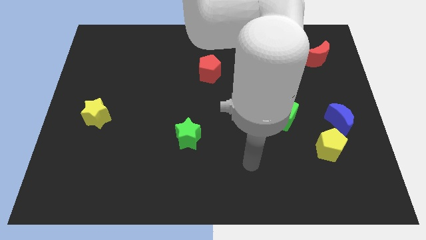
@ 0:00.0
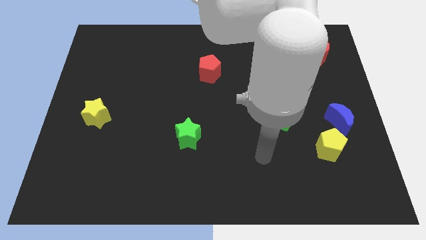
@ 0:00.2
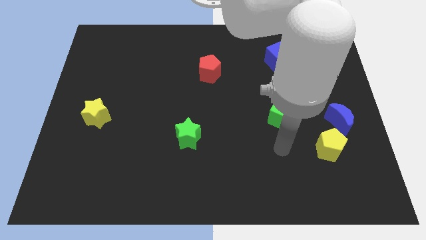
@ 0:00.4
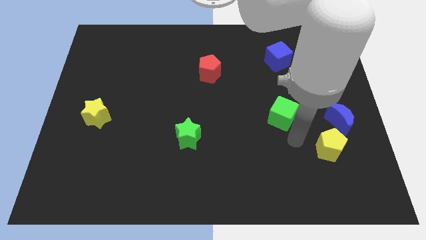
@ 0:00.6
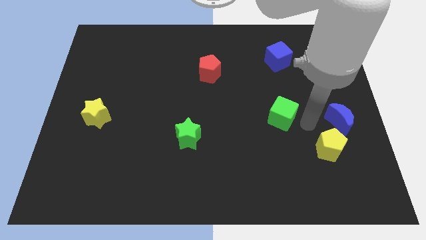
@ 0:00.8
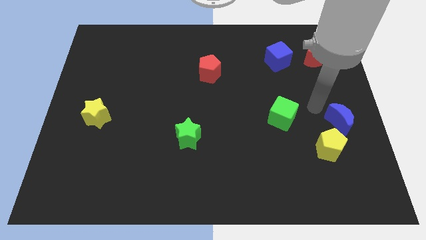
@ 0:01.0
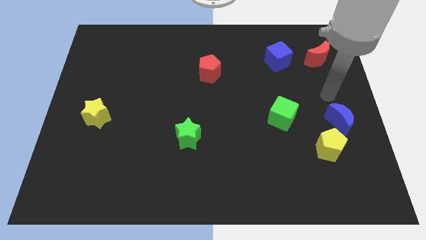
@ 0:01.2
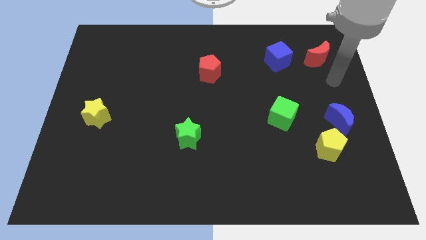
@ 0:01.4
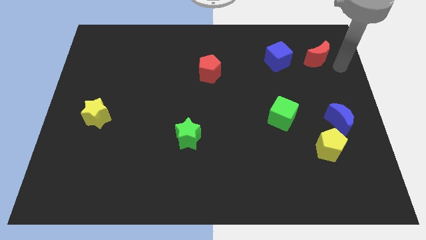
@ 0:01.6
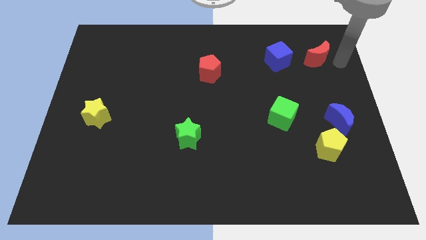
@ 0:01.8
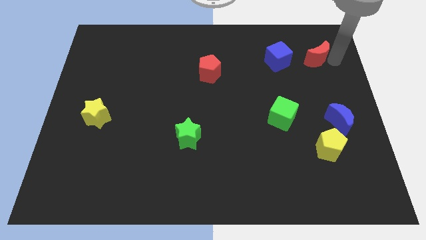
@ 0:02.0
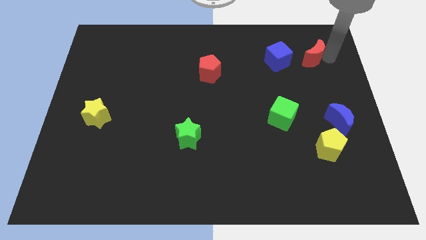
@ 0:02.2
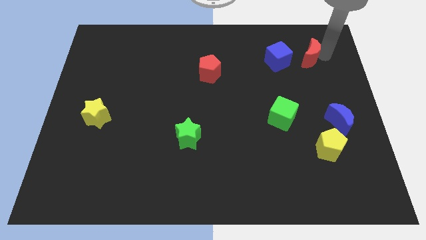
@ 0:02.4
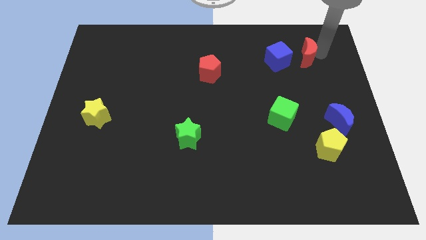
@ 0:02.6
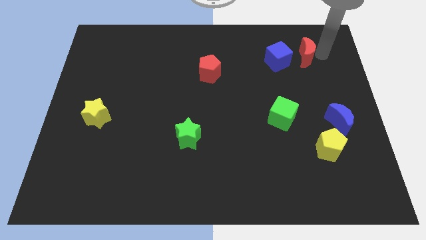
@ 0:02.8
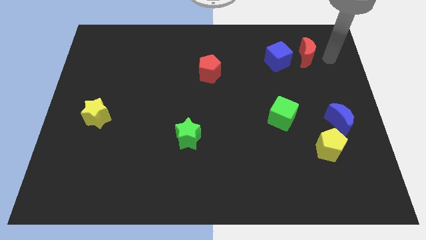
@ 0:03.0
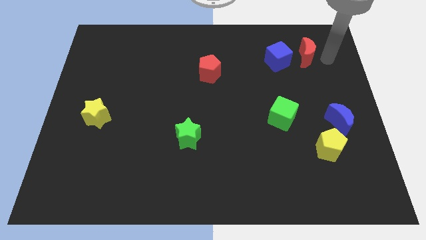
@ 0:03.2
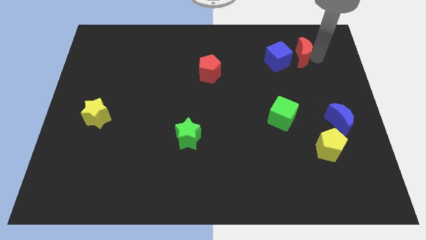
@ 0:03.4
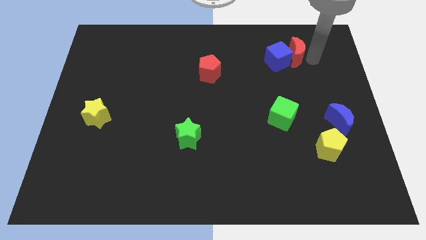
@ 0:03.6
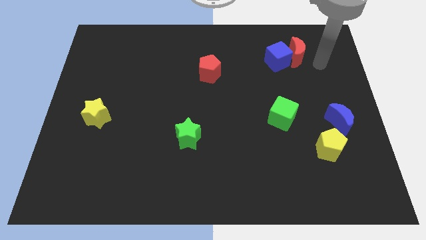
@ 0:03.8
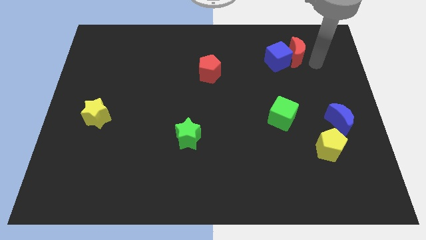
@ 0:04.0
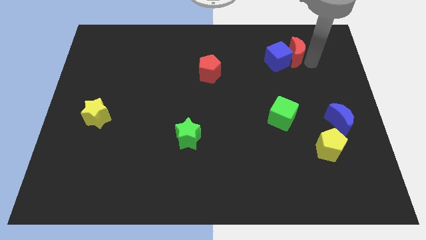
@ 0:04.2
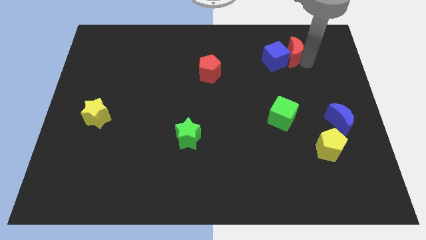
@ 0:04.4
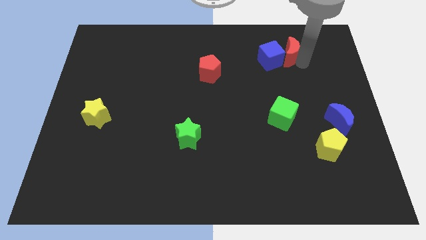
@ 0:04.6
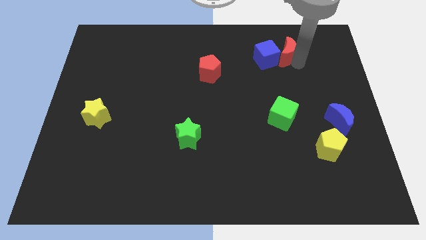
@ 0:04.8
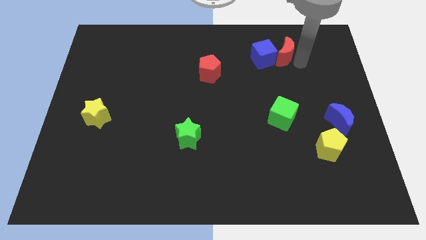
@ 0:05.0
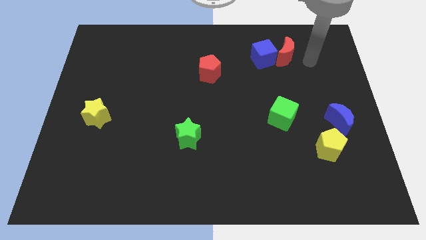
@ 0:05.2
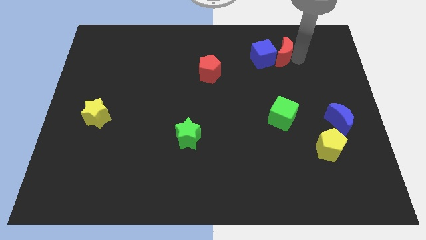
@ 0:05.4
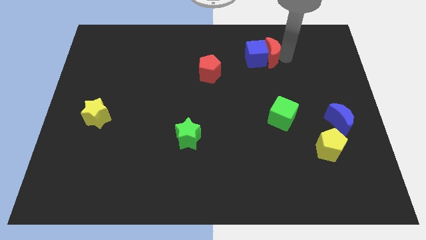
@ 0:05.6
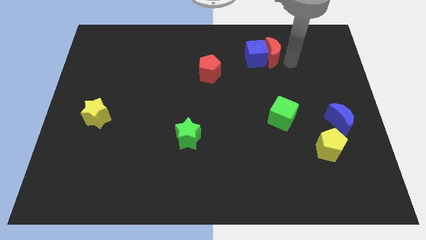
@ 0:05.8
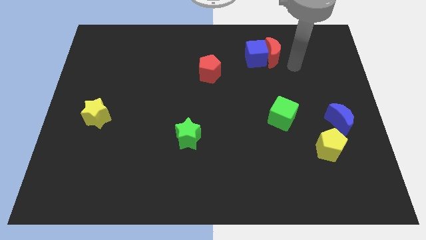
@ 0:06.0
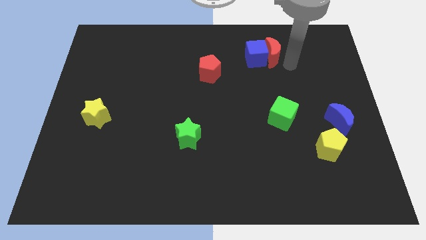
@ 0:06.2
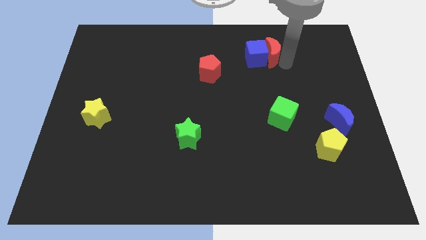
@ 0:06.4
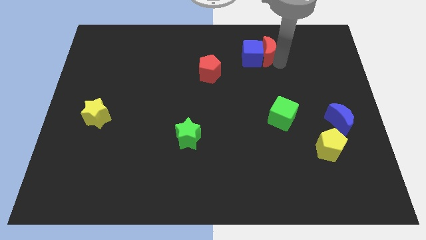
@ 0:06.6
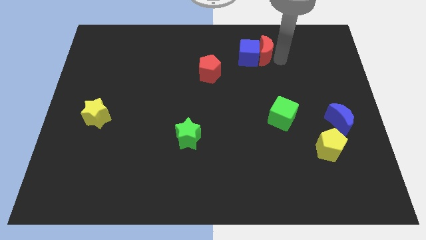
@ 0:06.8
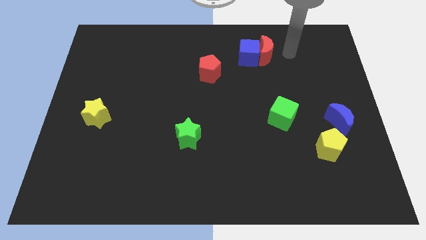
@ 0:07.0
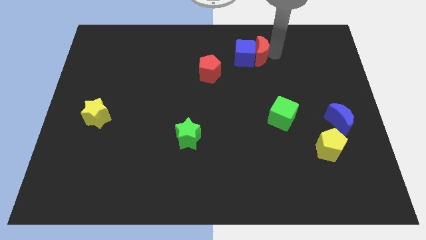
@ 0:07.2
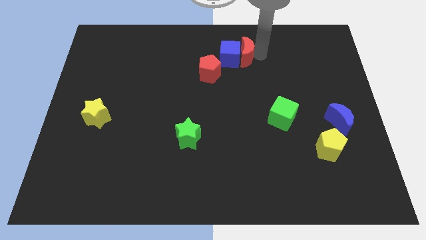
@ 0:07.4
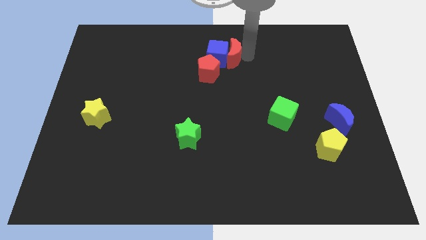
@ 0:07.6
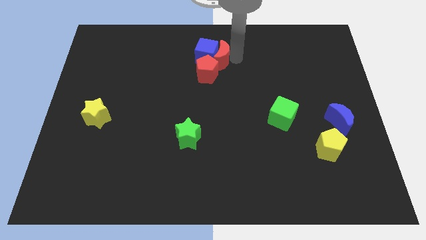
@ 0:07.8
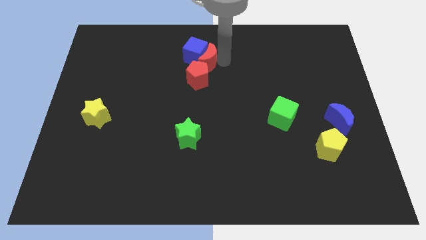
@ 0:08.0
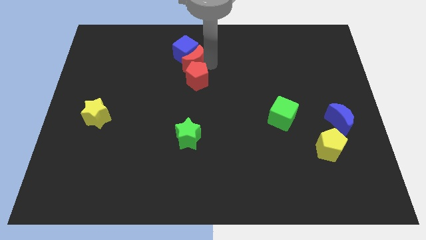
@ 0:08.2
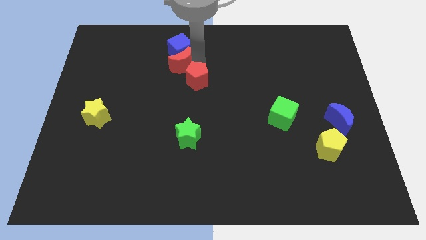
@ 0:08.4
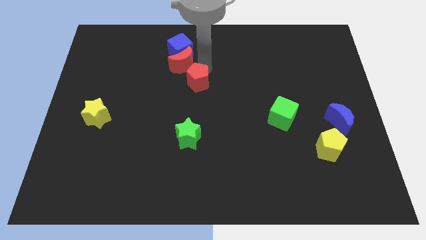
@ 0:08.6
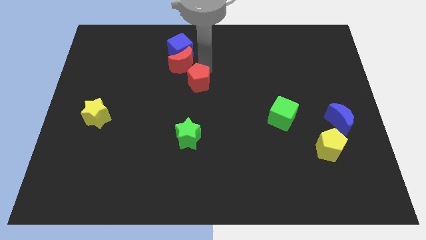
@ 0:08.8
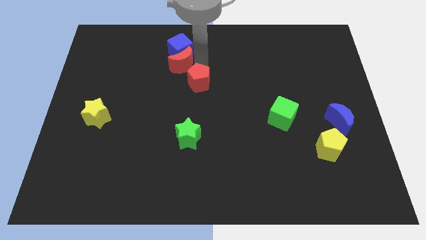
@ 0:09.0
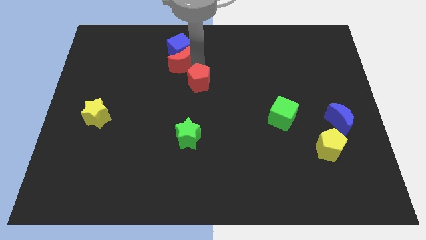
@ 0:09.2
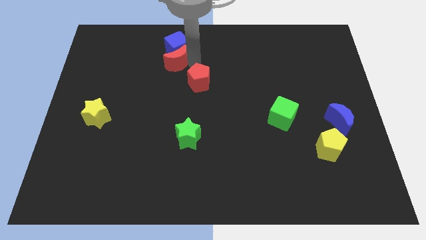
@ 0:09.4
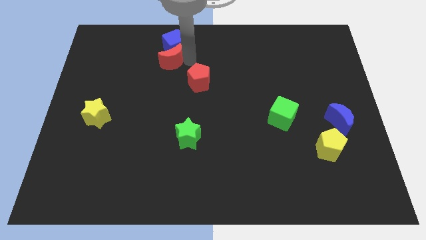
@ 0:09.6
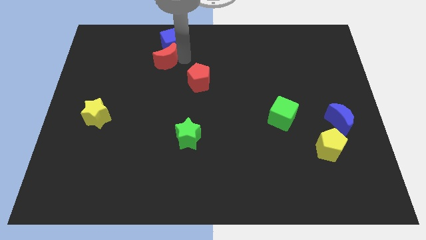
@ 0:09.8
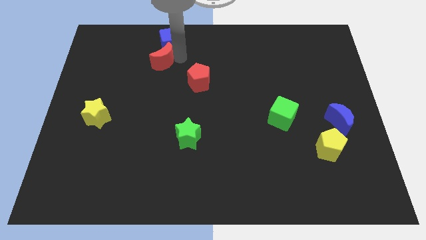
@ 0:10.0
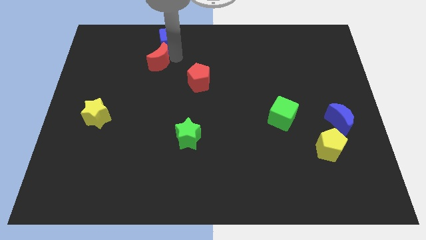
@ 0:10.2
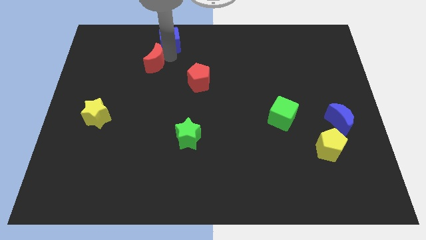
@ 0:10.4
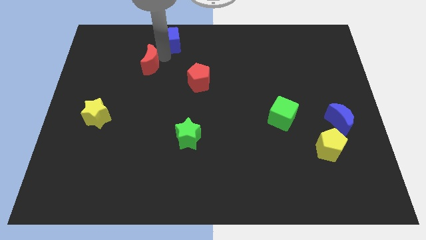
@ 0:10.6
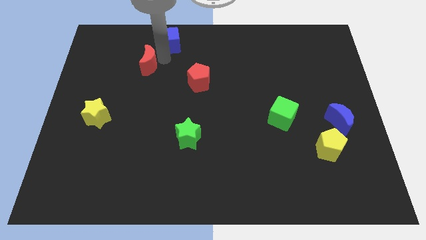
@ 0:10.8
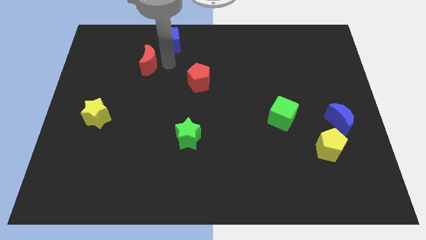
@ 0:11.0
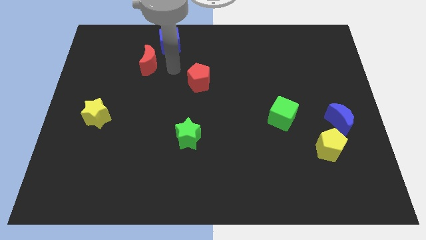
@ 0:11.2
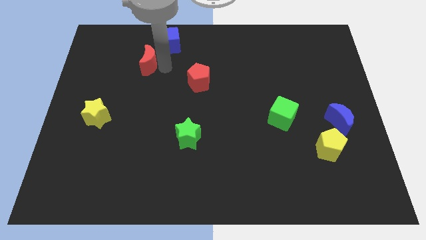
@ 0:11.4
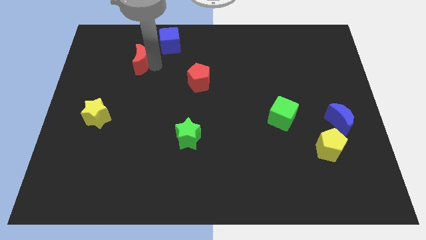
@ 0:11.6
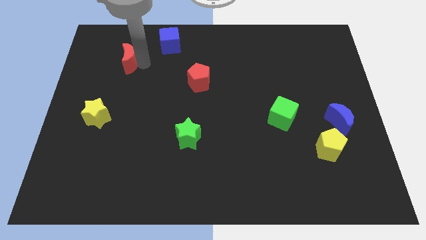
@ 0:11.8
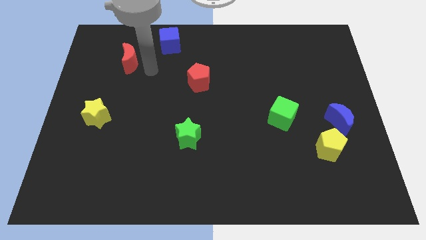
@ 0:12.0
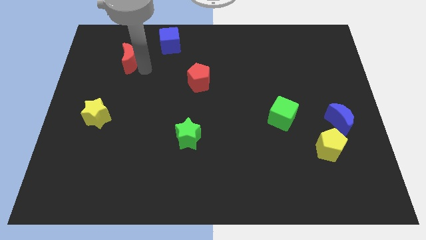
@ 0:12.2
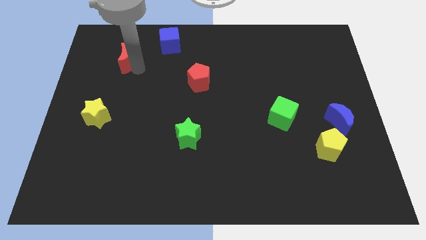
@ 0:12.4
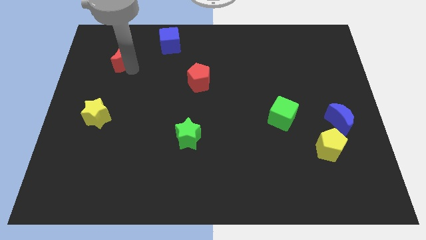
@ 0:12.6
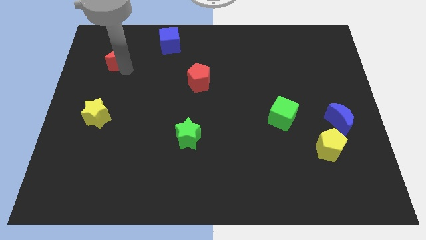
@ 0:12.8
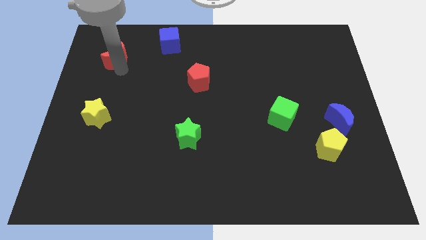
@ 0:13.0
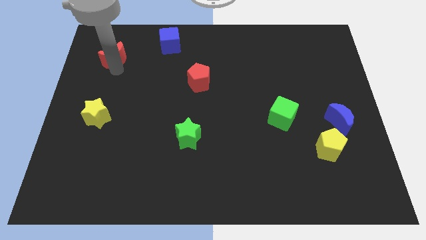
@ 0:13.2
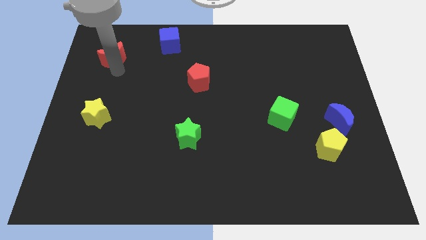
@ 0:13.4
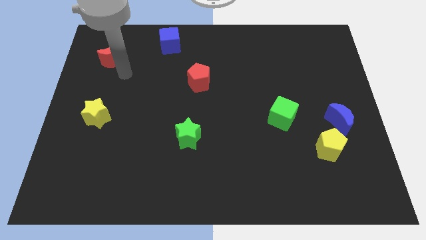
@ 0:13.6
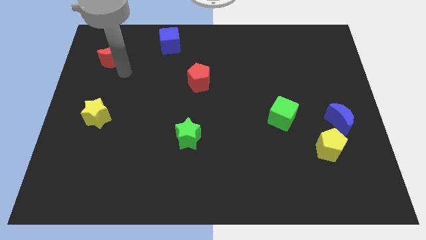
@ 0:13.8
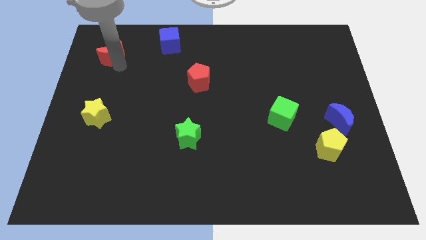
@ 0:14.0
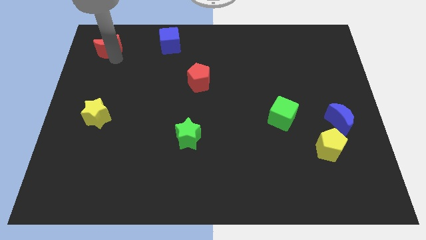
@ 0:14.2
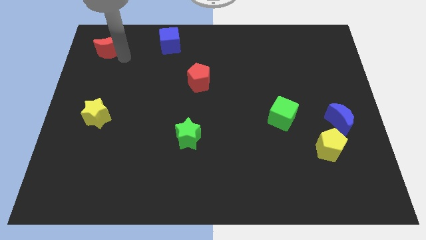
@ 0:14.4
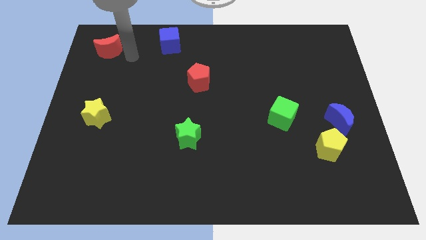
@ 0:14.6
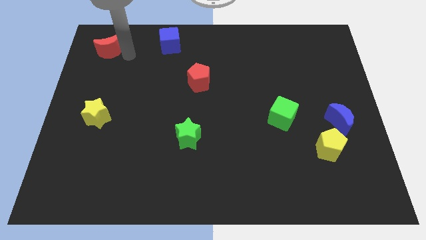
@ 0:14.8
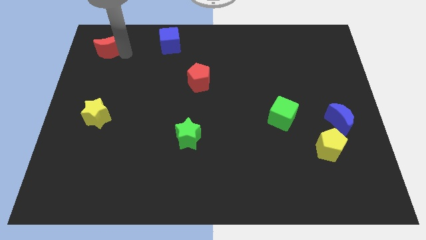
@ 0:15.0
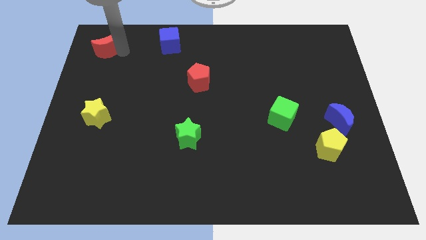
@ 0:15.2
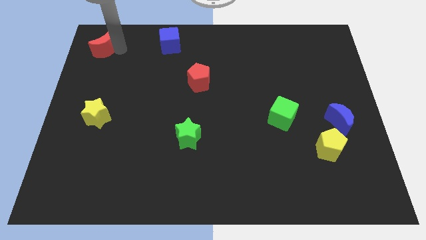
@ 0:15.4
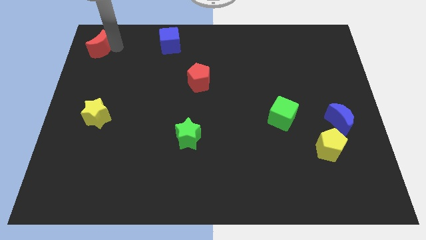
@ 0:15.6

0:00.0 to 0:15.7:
put the red moon to the upper left corner
